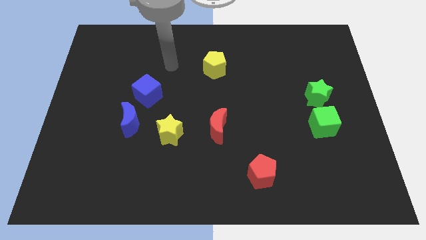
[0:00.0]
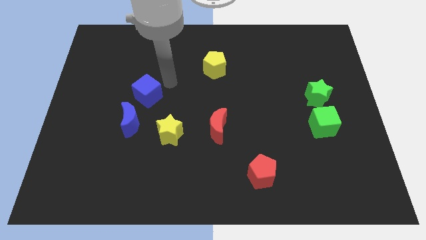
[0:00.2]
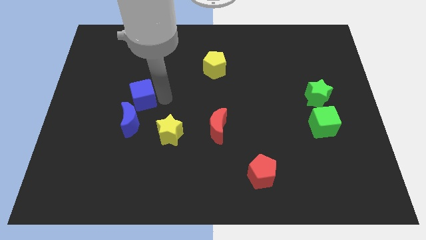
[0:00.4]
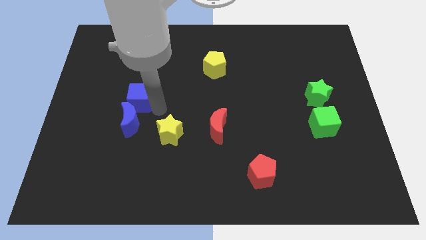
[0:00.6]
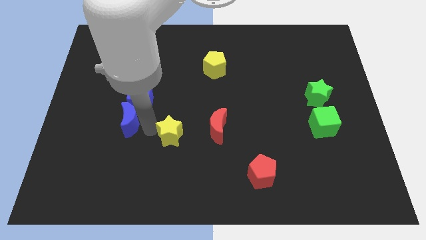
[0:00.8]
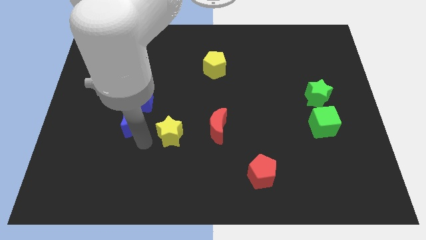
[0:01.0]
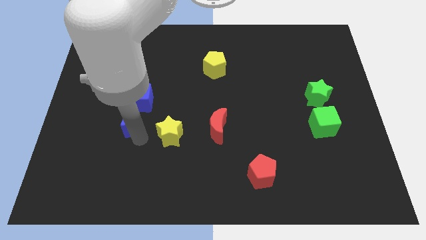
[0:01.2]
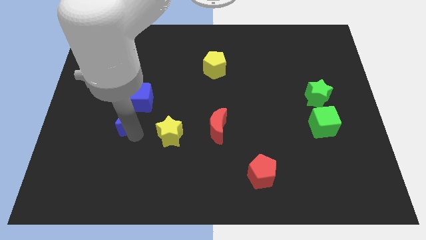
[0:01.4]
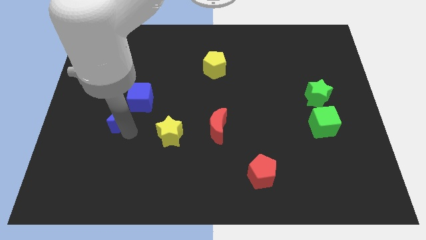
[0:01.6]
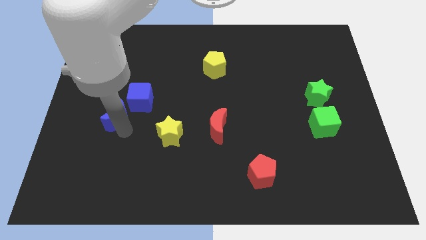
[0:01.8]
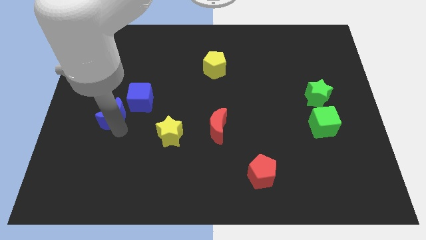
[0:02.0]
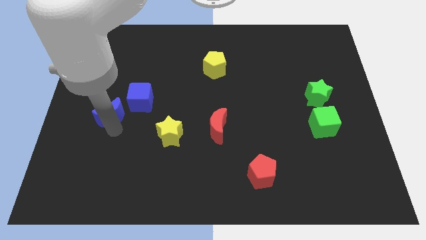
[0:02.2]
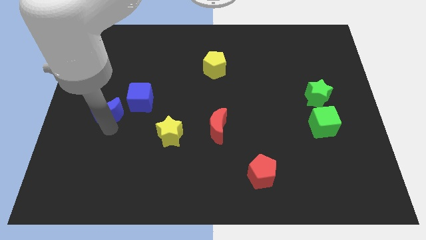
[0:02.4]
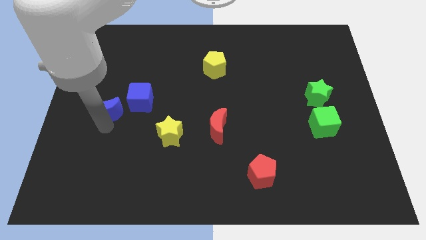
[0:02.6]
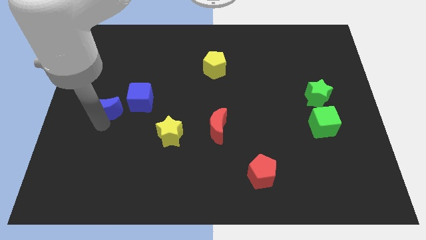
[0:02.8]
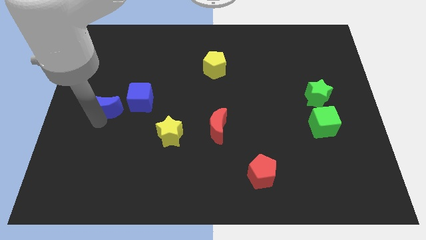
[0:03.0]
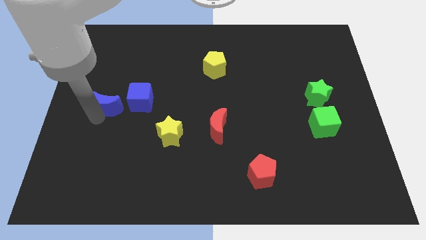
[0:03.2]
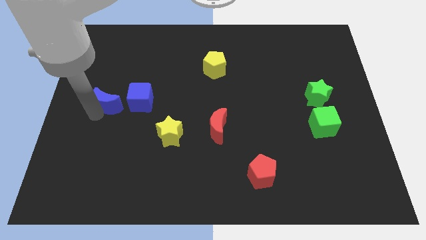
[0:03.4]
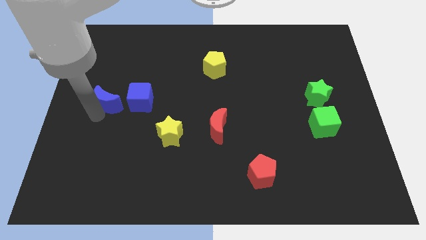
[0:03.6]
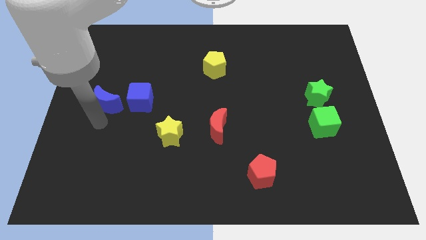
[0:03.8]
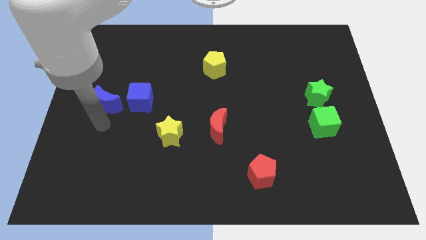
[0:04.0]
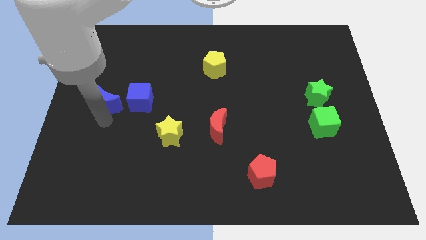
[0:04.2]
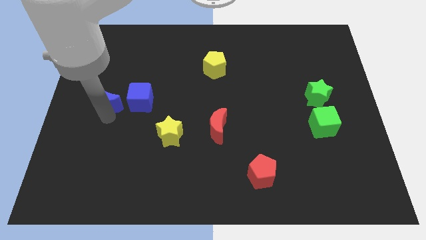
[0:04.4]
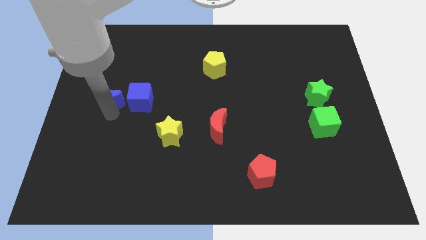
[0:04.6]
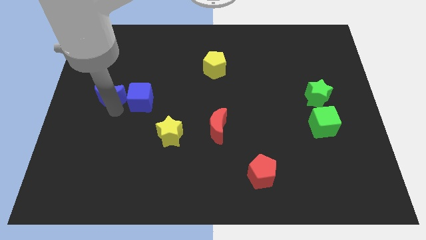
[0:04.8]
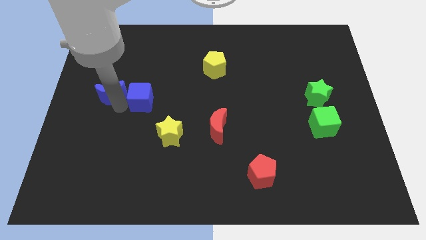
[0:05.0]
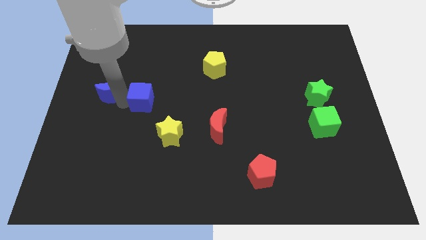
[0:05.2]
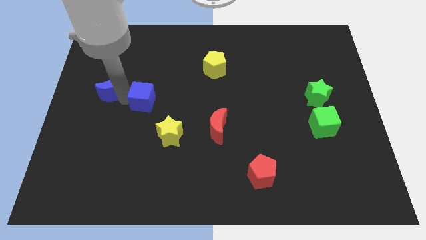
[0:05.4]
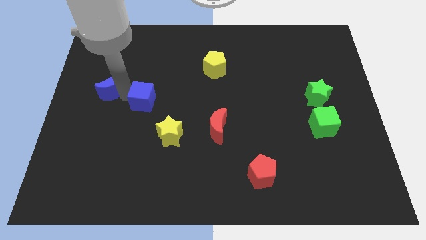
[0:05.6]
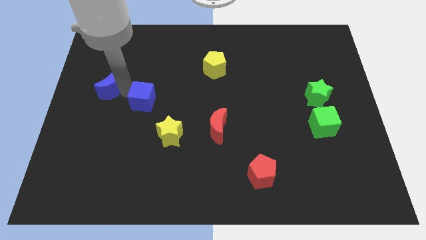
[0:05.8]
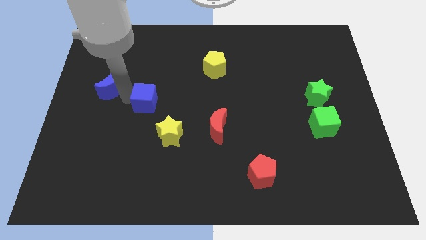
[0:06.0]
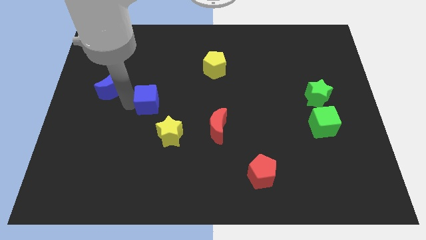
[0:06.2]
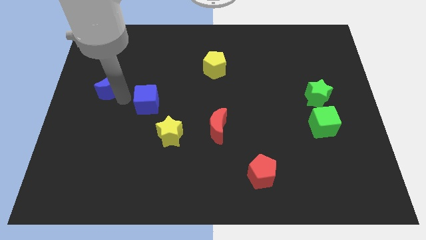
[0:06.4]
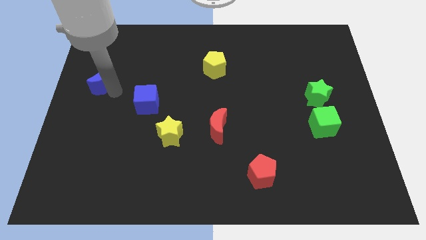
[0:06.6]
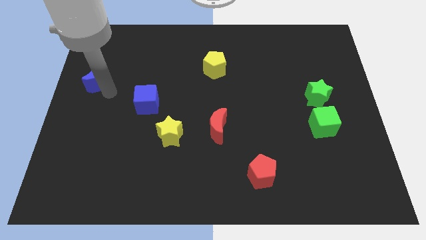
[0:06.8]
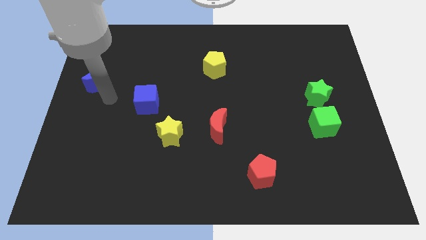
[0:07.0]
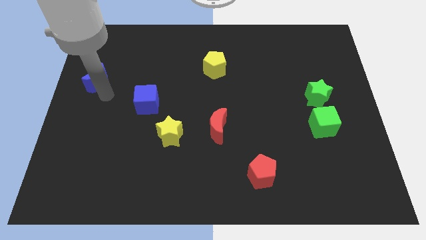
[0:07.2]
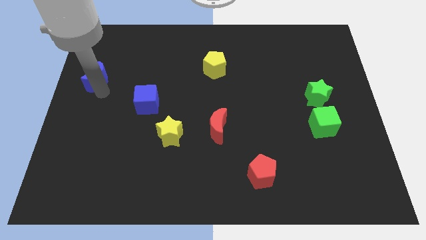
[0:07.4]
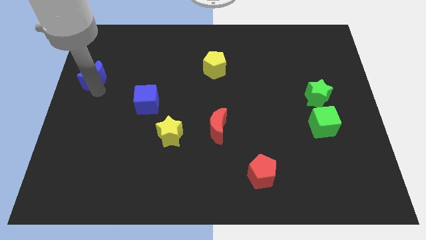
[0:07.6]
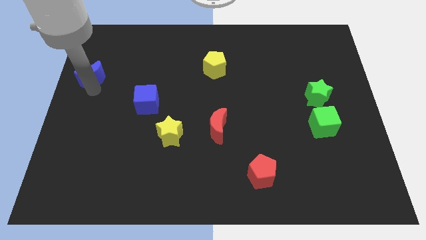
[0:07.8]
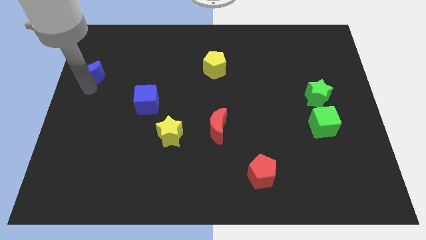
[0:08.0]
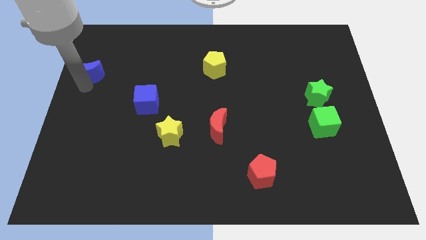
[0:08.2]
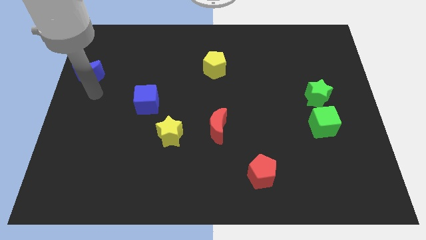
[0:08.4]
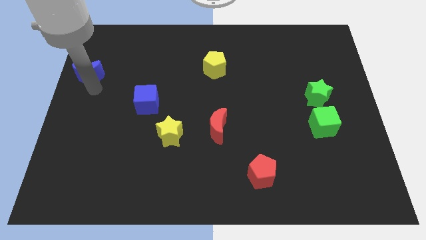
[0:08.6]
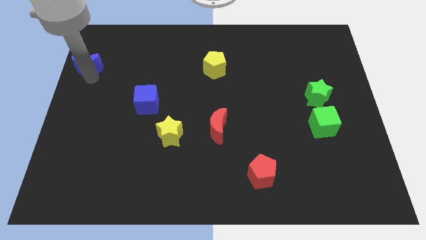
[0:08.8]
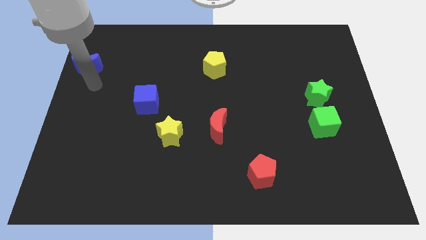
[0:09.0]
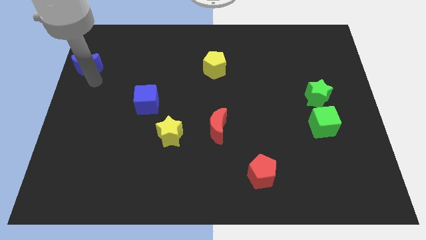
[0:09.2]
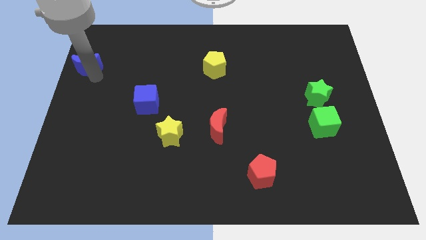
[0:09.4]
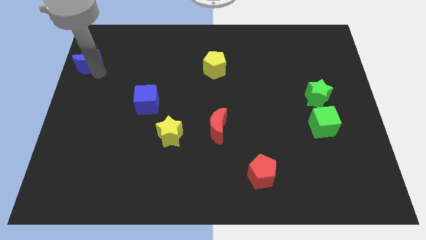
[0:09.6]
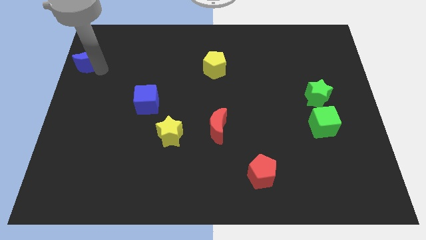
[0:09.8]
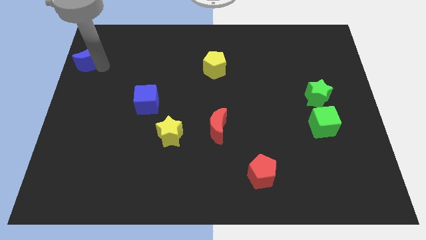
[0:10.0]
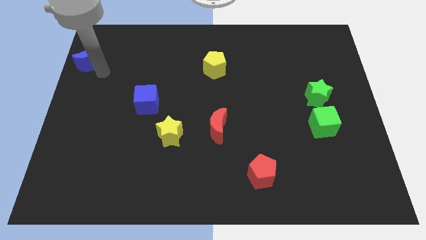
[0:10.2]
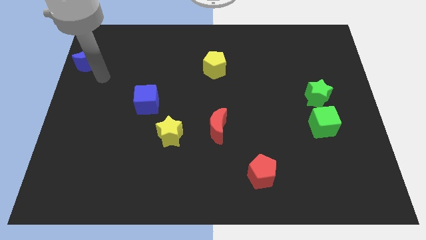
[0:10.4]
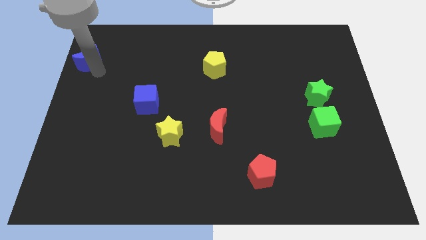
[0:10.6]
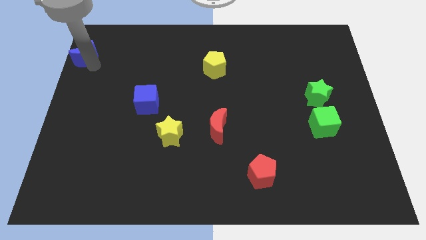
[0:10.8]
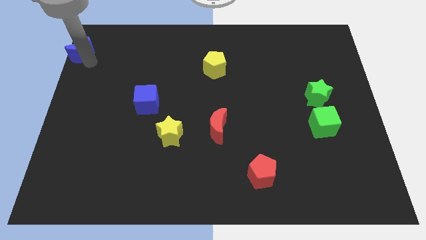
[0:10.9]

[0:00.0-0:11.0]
put the blue moon to the upper left corner
